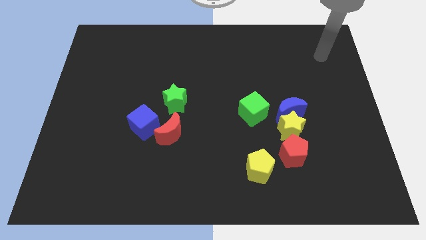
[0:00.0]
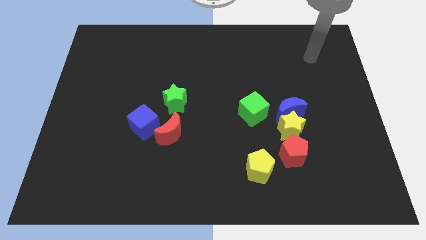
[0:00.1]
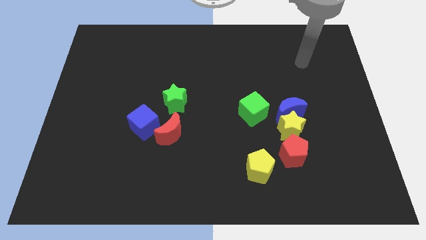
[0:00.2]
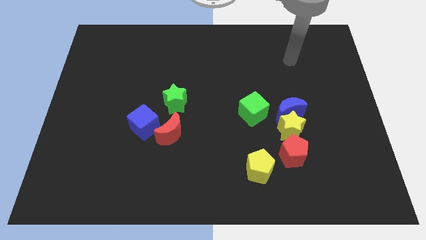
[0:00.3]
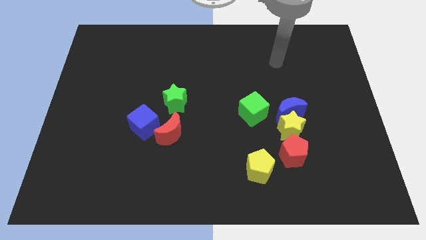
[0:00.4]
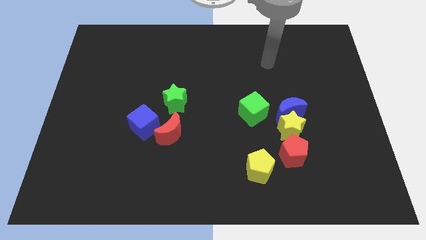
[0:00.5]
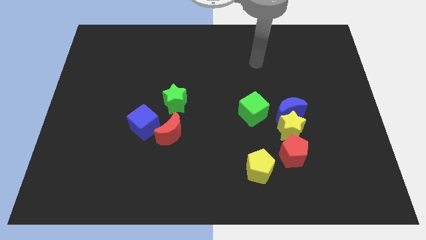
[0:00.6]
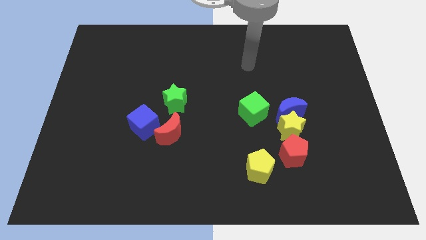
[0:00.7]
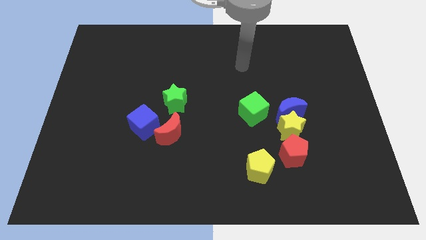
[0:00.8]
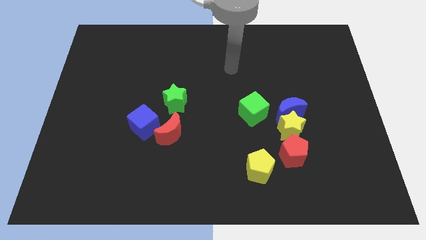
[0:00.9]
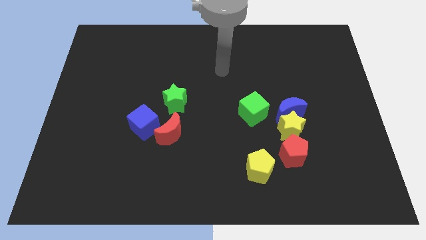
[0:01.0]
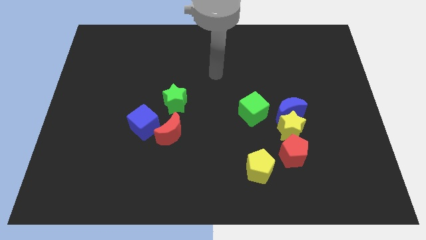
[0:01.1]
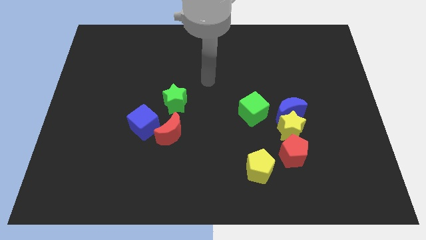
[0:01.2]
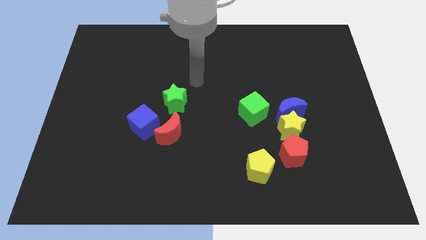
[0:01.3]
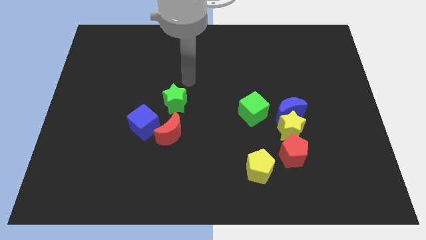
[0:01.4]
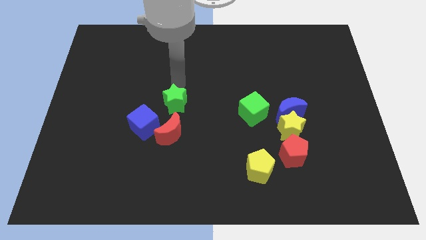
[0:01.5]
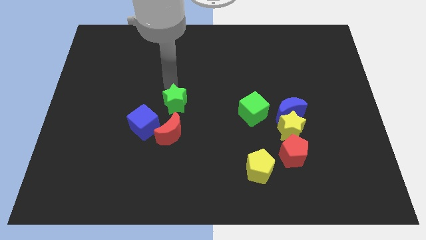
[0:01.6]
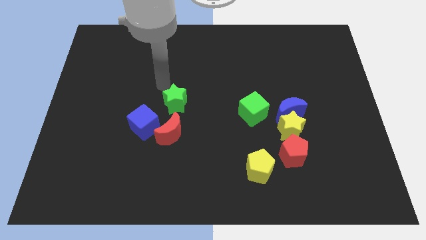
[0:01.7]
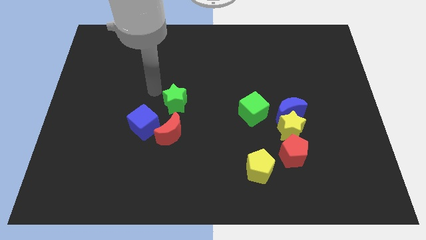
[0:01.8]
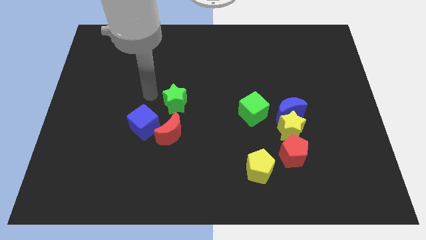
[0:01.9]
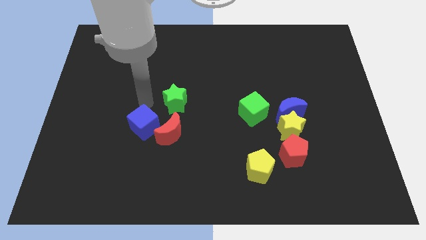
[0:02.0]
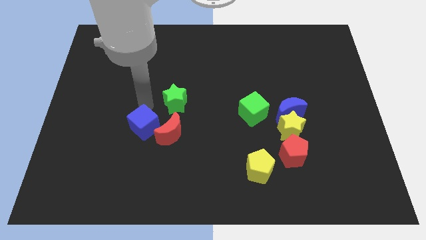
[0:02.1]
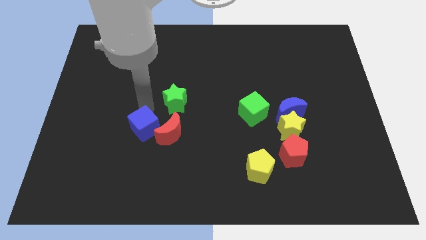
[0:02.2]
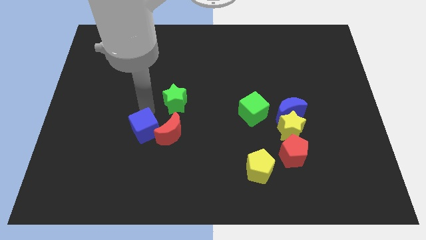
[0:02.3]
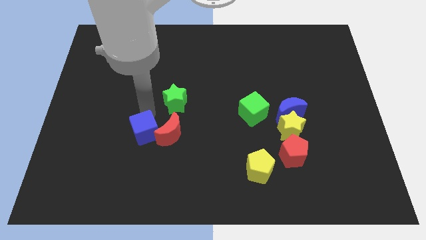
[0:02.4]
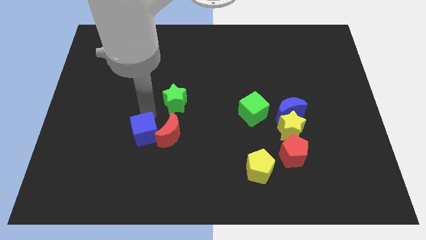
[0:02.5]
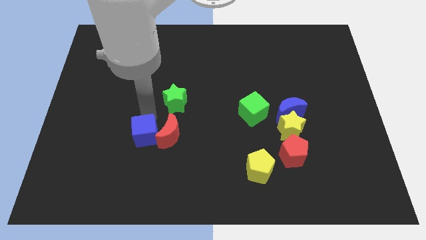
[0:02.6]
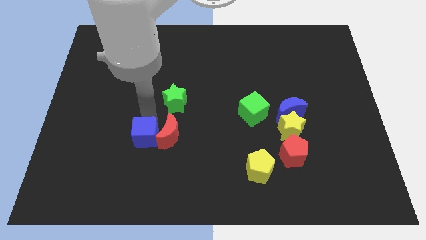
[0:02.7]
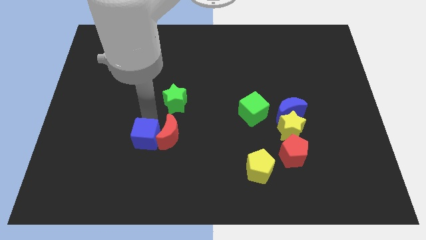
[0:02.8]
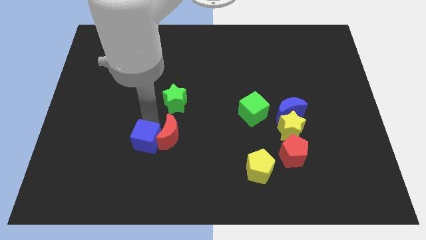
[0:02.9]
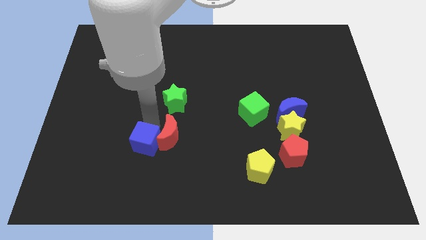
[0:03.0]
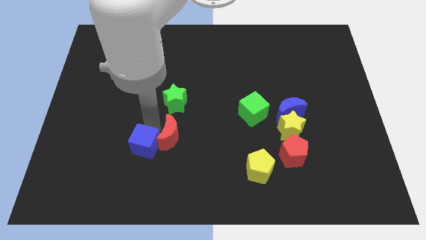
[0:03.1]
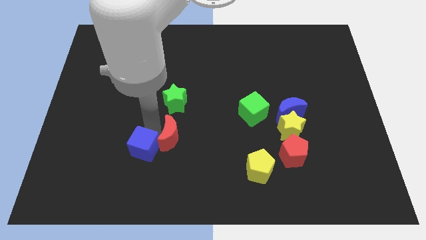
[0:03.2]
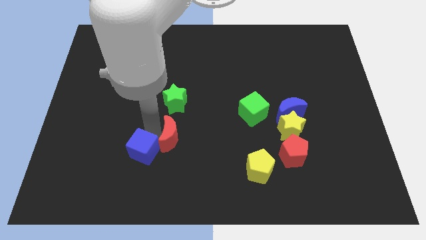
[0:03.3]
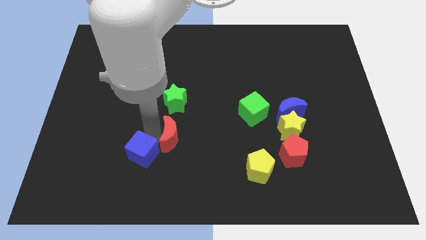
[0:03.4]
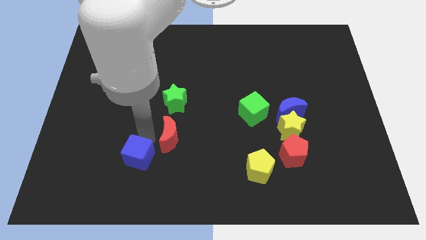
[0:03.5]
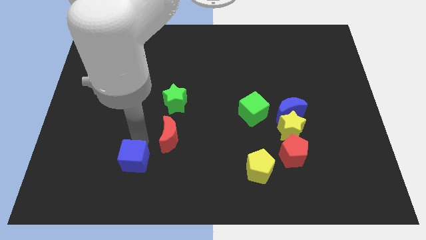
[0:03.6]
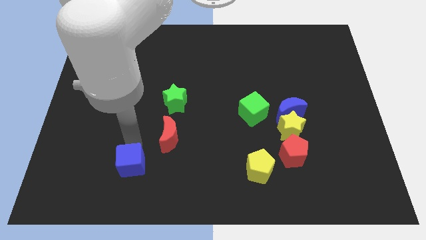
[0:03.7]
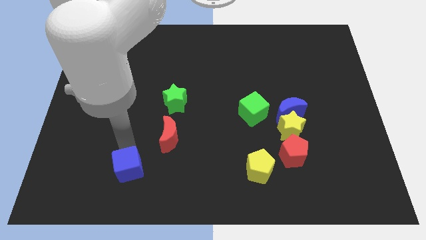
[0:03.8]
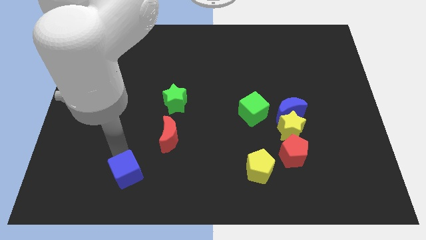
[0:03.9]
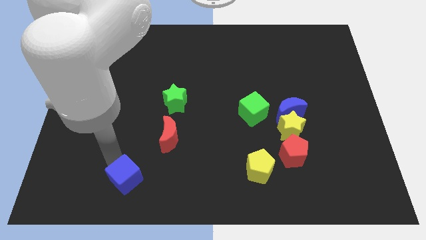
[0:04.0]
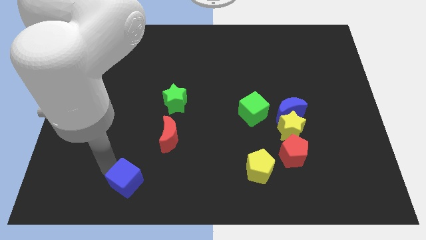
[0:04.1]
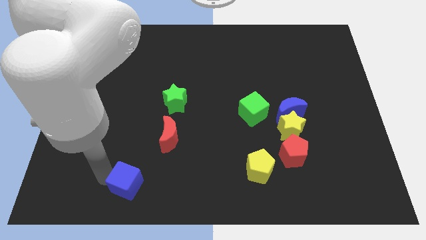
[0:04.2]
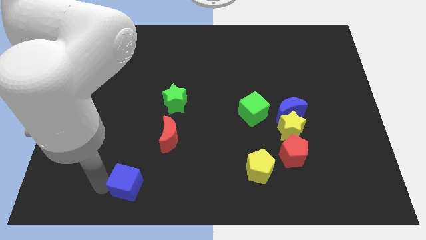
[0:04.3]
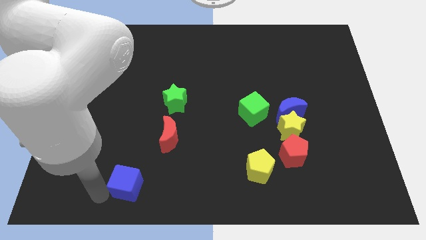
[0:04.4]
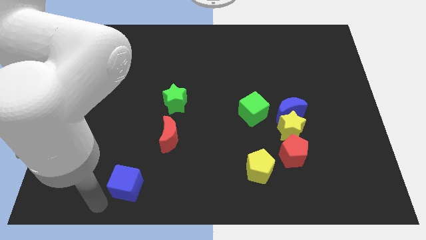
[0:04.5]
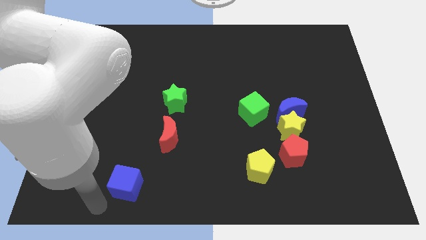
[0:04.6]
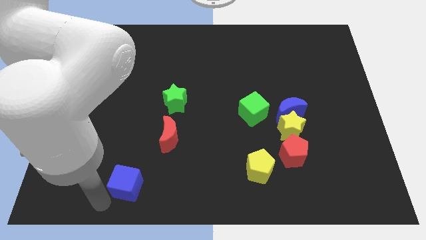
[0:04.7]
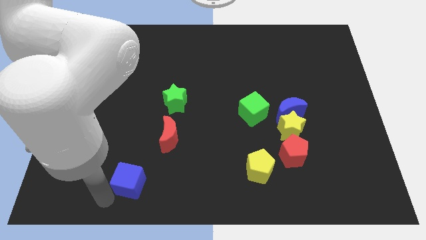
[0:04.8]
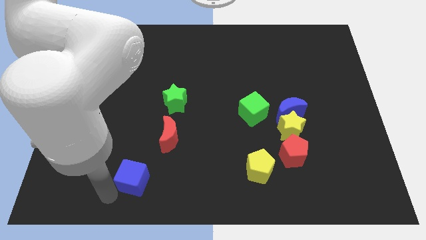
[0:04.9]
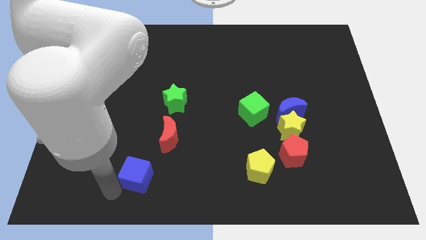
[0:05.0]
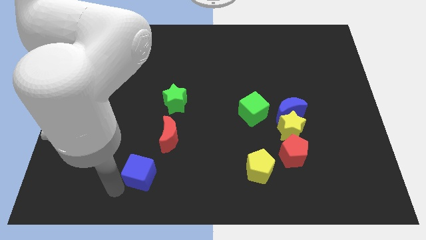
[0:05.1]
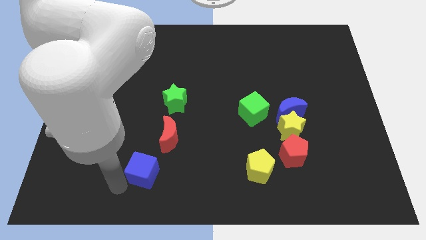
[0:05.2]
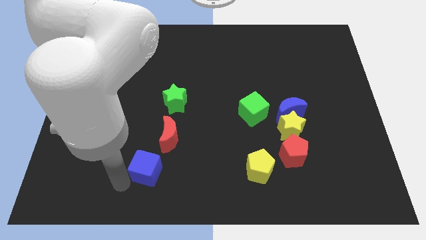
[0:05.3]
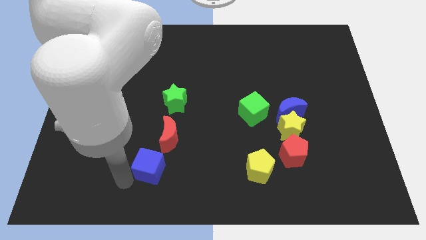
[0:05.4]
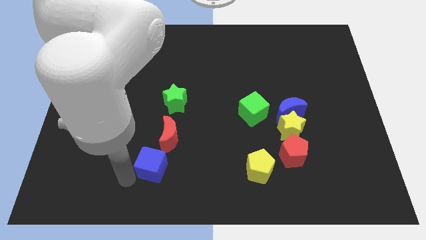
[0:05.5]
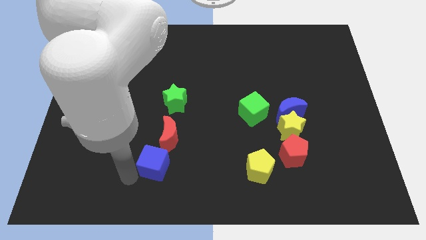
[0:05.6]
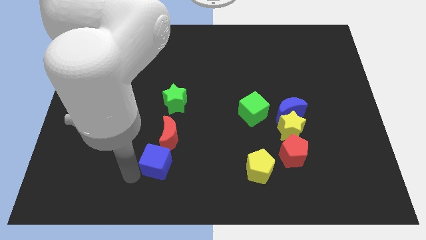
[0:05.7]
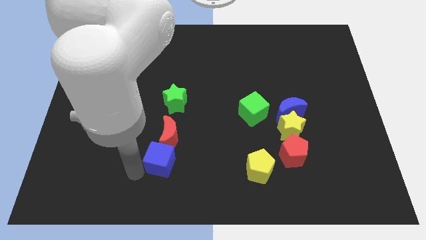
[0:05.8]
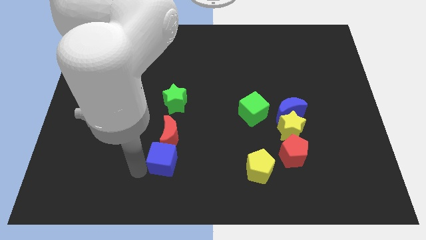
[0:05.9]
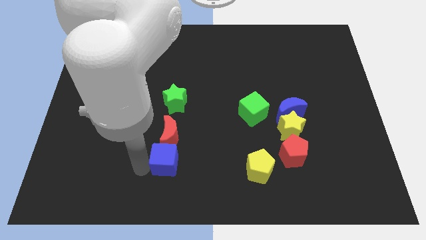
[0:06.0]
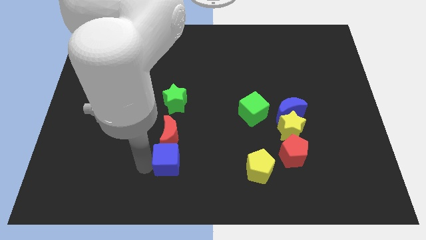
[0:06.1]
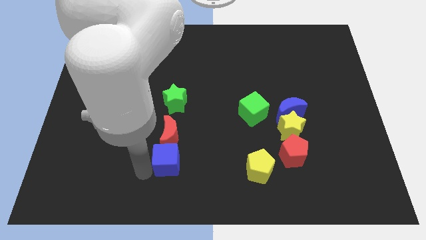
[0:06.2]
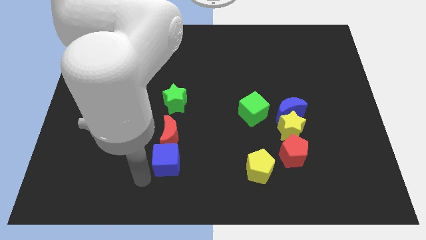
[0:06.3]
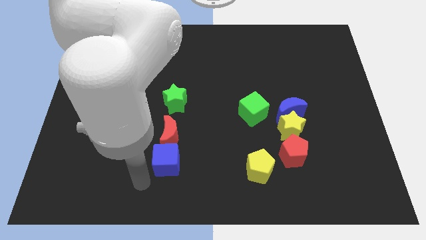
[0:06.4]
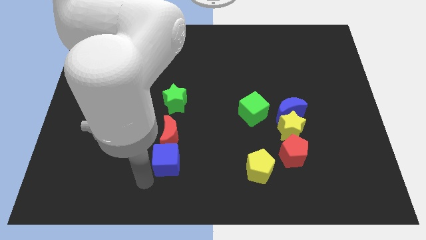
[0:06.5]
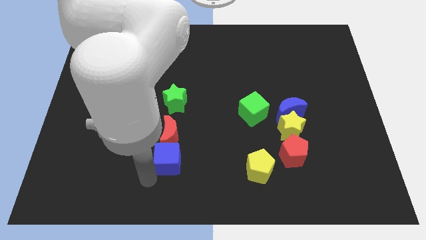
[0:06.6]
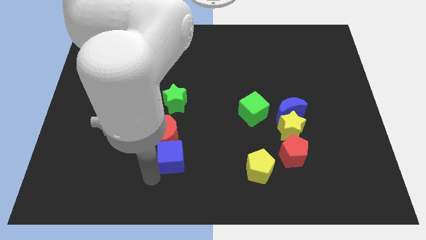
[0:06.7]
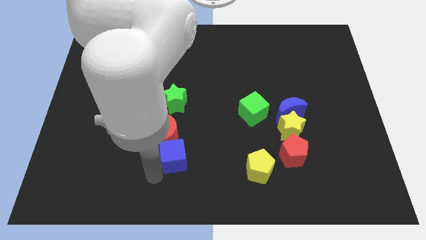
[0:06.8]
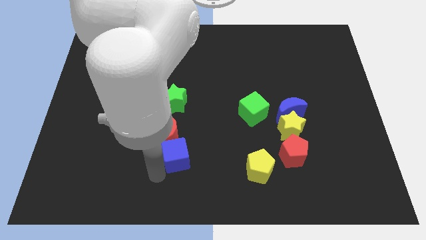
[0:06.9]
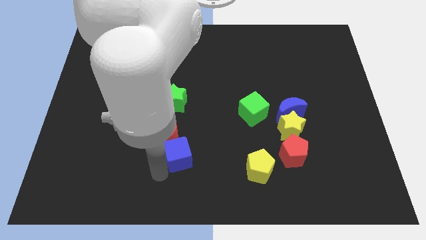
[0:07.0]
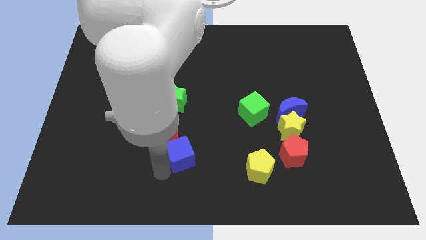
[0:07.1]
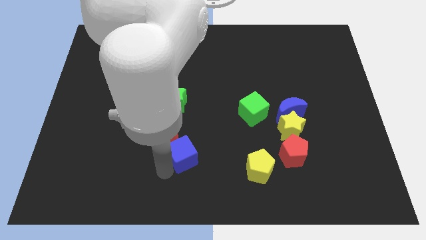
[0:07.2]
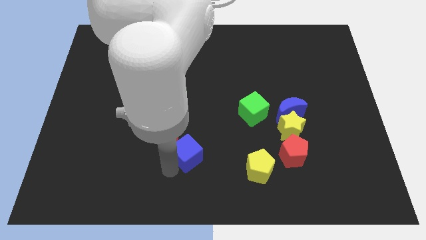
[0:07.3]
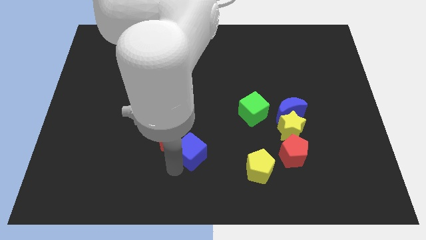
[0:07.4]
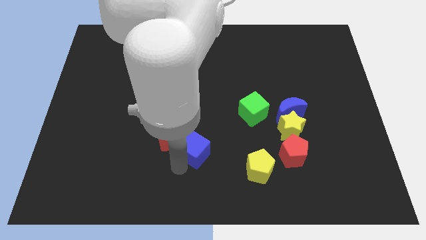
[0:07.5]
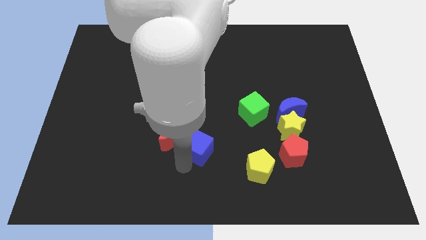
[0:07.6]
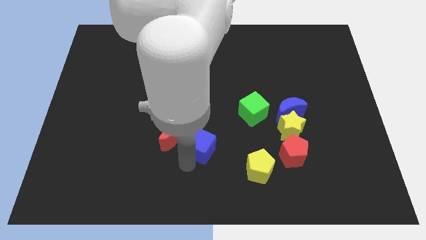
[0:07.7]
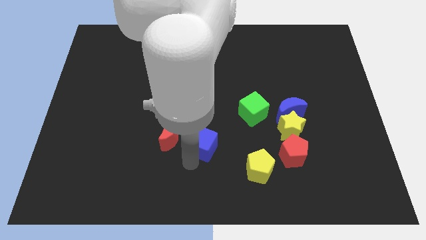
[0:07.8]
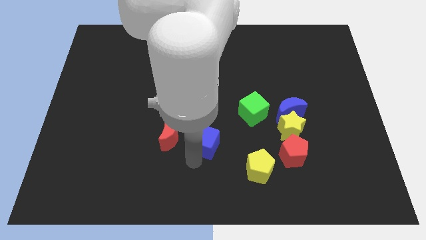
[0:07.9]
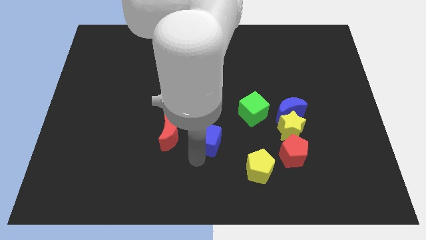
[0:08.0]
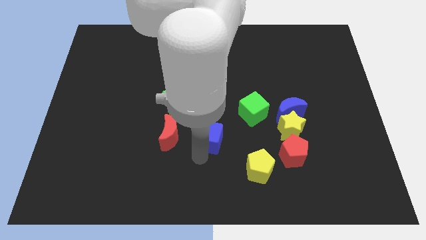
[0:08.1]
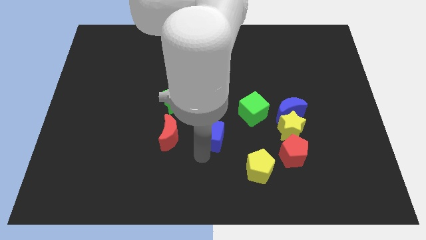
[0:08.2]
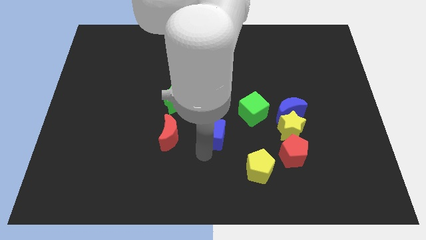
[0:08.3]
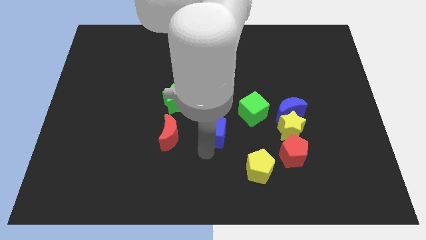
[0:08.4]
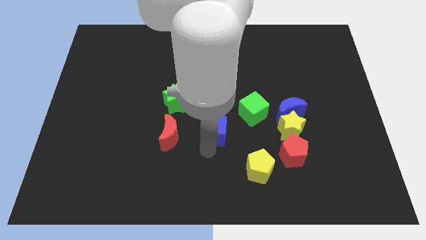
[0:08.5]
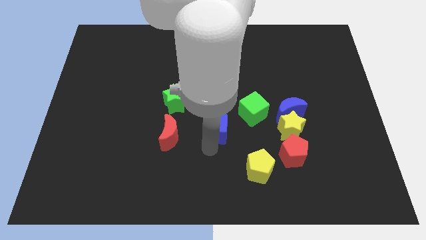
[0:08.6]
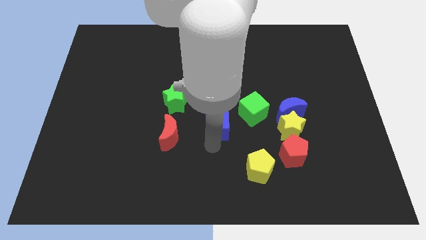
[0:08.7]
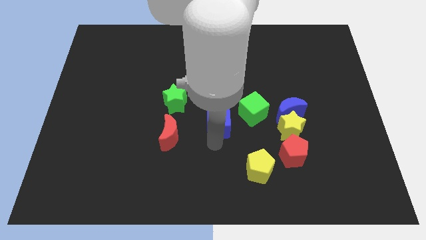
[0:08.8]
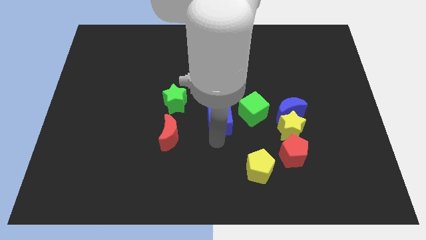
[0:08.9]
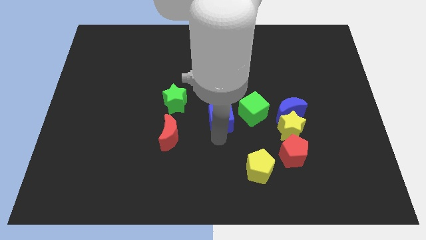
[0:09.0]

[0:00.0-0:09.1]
slide the blue cube just left of the blue moon
